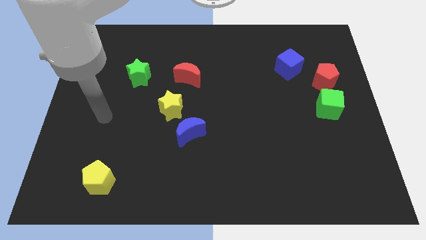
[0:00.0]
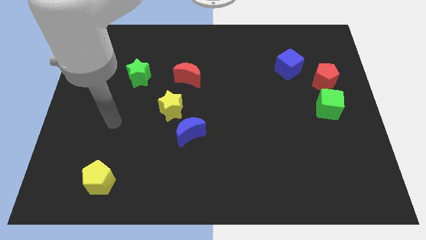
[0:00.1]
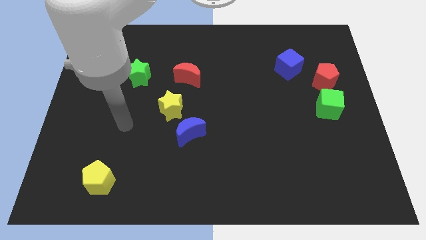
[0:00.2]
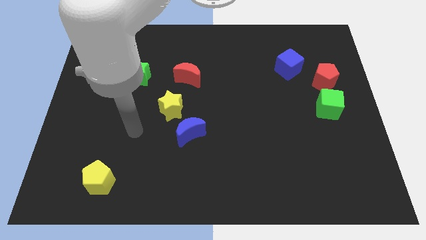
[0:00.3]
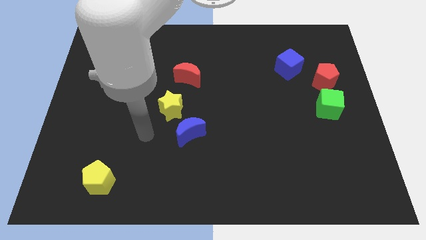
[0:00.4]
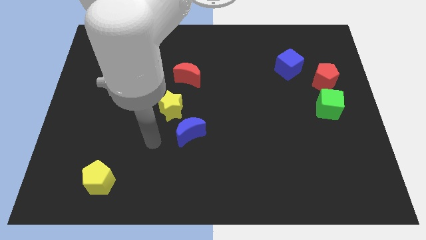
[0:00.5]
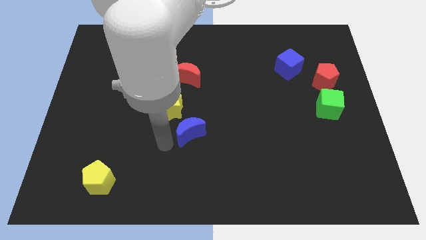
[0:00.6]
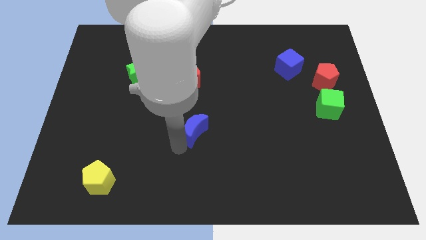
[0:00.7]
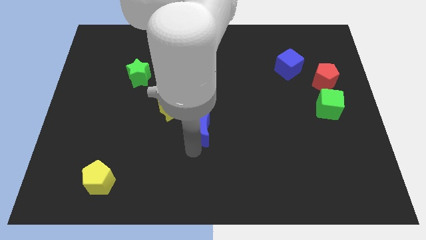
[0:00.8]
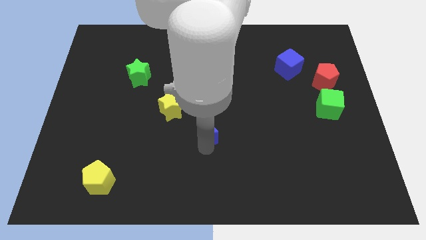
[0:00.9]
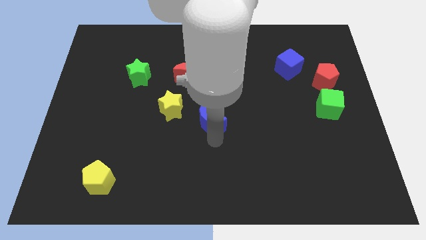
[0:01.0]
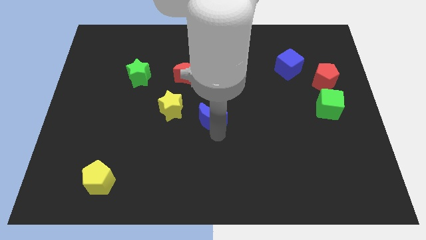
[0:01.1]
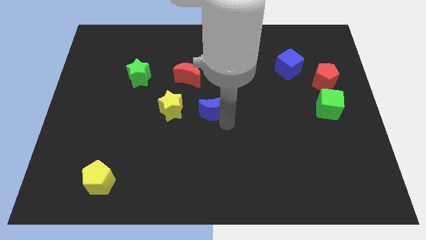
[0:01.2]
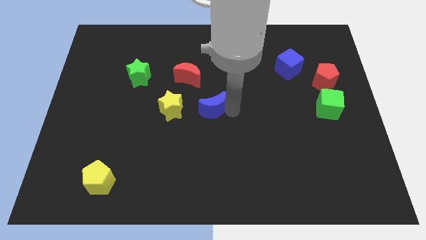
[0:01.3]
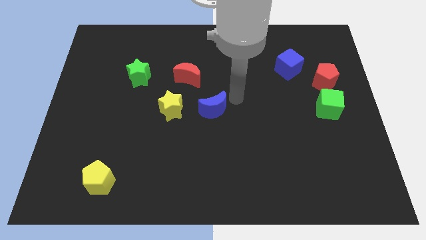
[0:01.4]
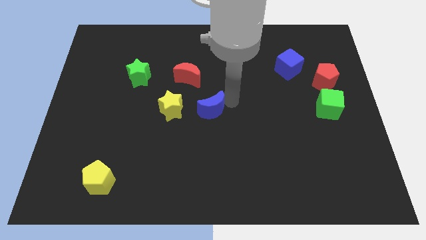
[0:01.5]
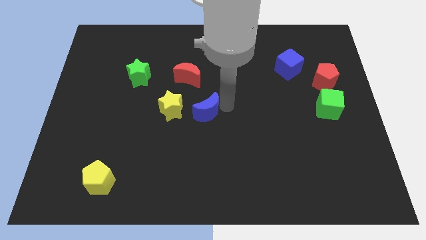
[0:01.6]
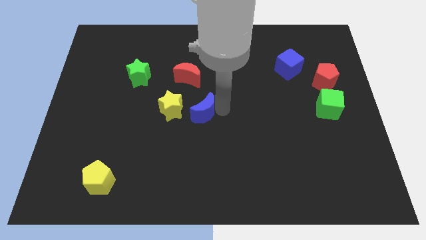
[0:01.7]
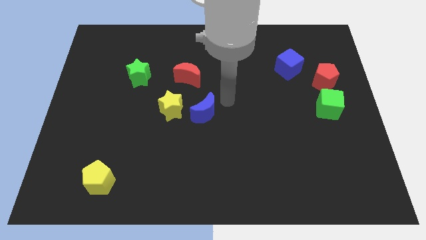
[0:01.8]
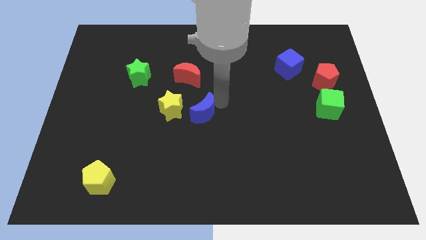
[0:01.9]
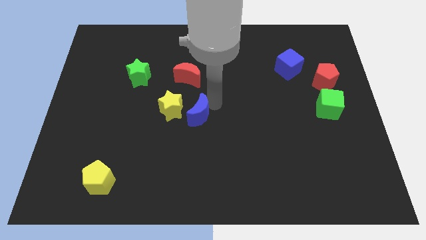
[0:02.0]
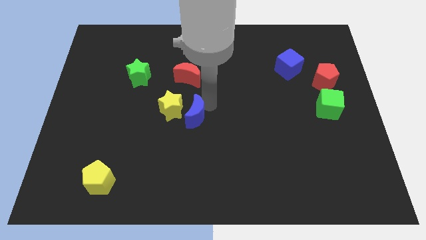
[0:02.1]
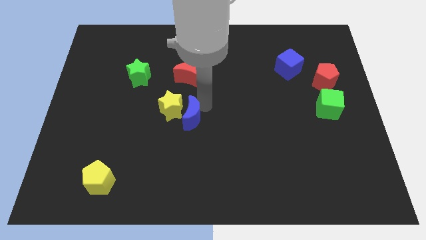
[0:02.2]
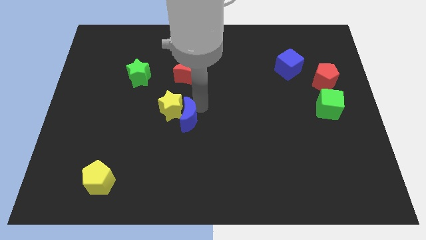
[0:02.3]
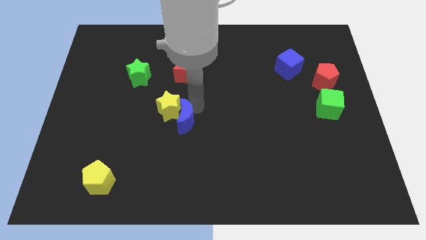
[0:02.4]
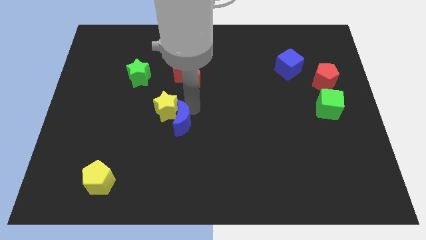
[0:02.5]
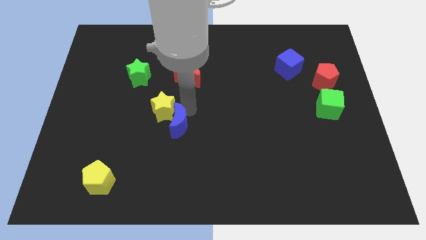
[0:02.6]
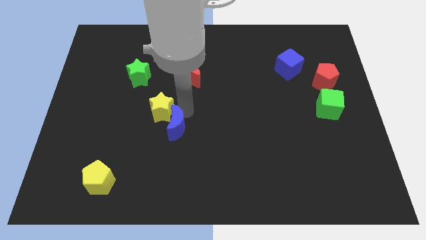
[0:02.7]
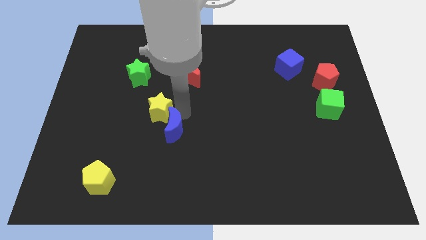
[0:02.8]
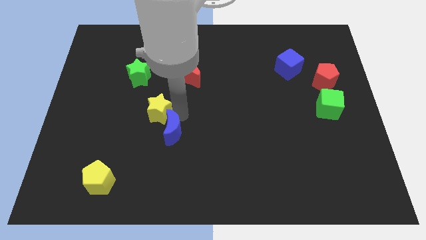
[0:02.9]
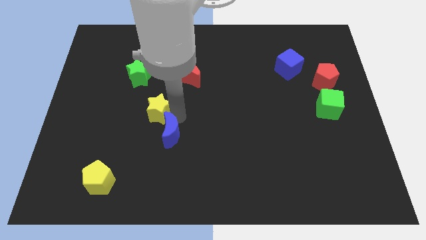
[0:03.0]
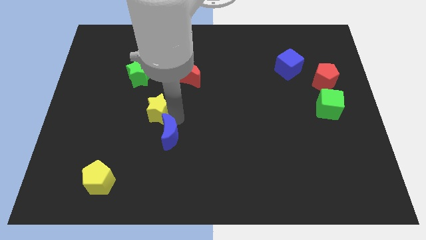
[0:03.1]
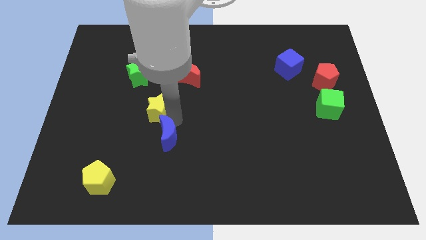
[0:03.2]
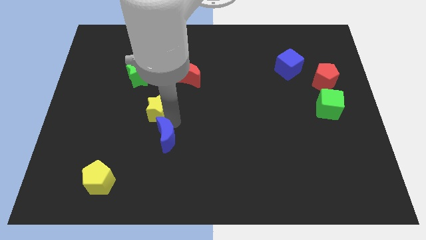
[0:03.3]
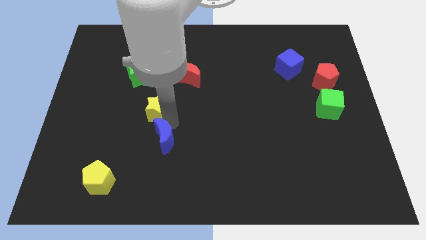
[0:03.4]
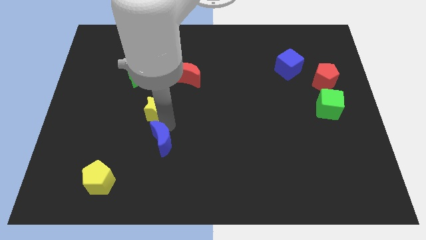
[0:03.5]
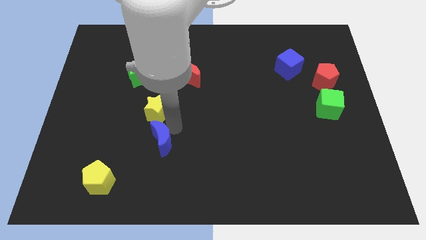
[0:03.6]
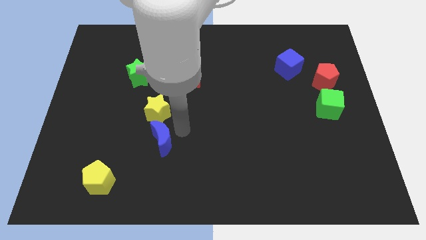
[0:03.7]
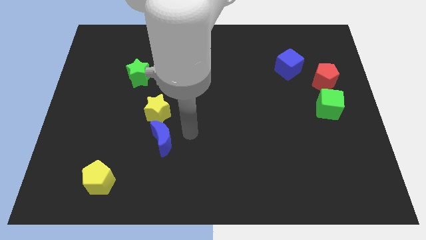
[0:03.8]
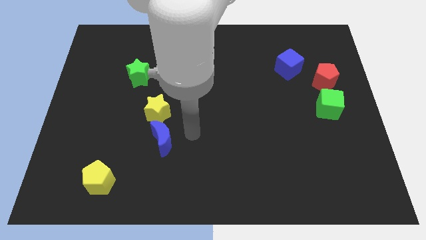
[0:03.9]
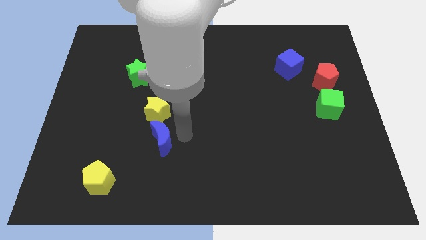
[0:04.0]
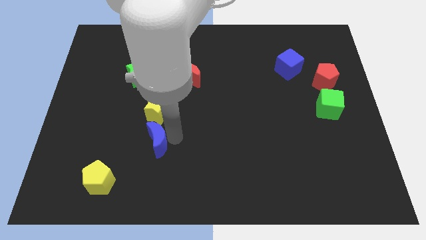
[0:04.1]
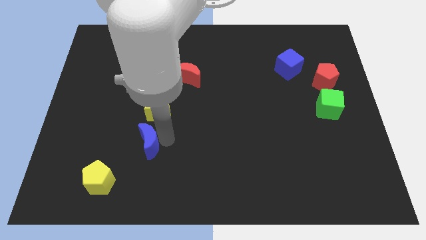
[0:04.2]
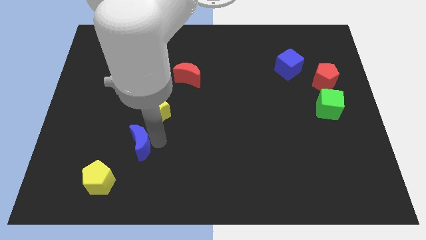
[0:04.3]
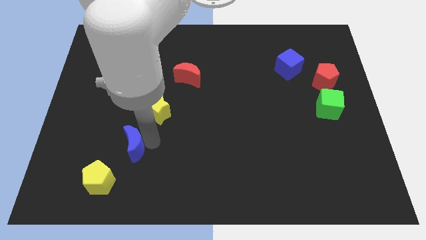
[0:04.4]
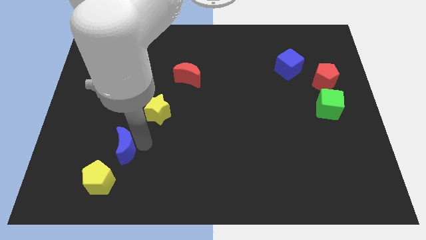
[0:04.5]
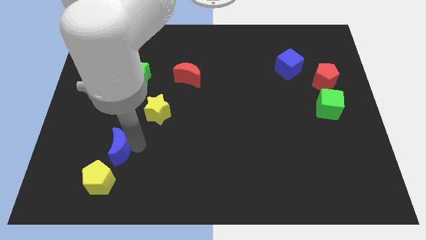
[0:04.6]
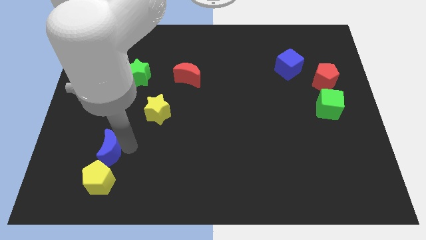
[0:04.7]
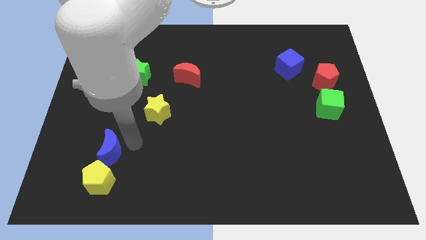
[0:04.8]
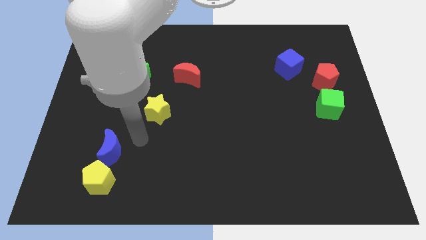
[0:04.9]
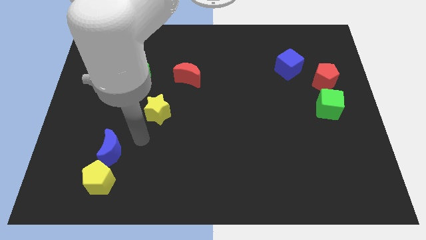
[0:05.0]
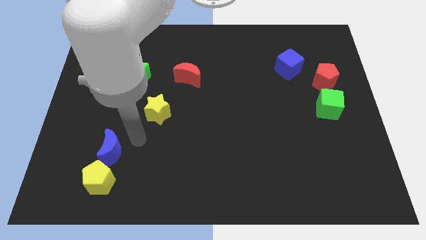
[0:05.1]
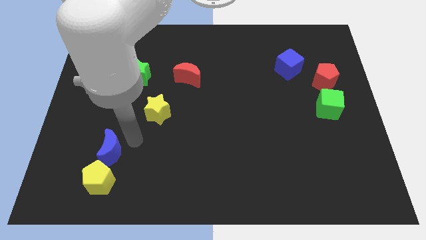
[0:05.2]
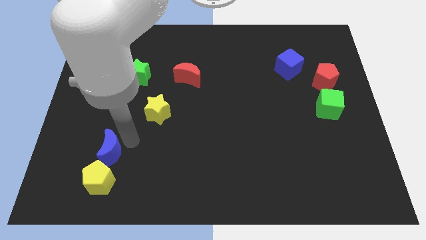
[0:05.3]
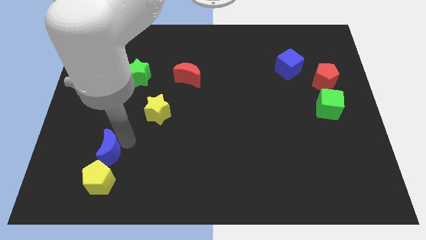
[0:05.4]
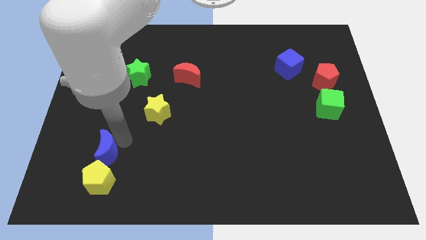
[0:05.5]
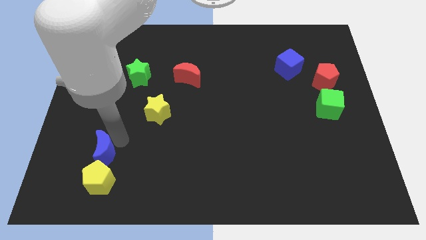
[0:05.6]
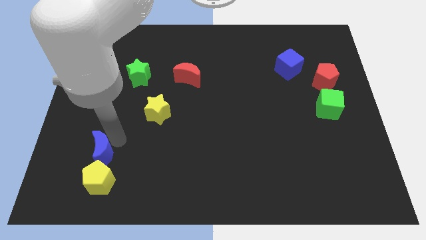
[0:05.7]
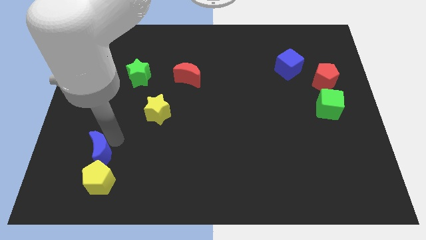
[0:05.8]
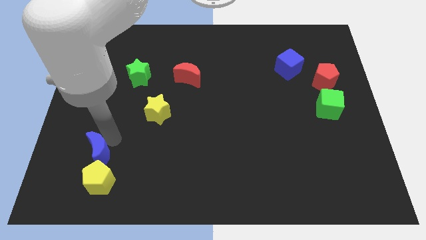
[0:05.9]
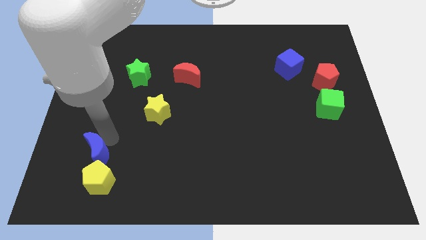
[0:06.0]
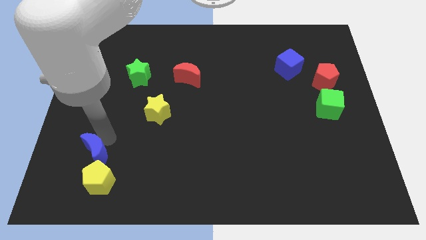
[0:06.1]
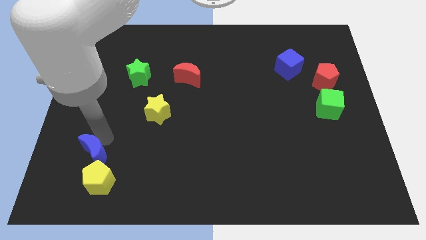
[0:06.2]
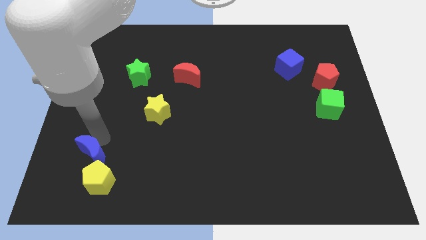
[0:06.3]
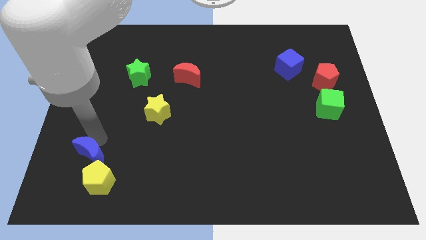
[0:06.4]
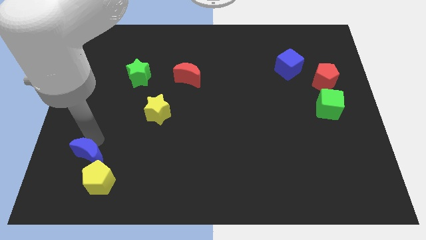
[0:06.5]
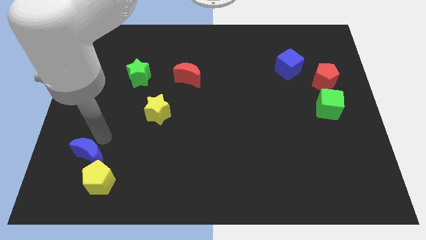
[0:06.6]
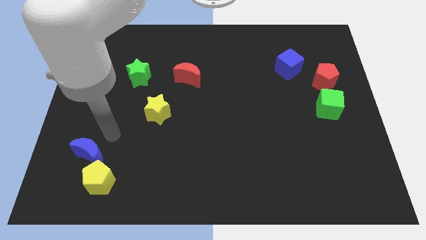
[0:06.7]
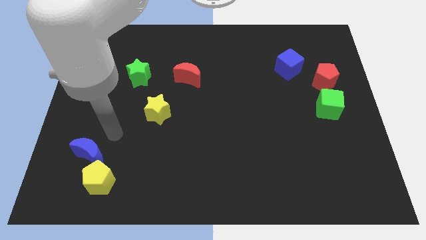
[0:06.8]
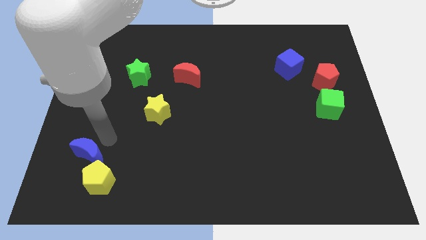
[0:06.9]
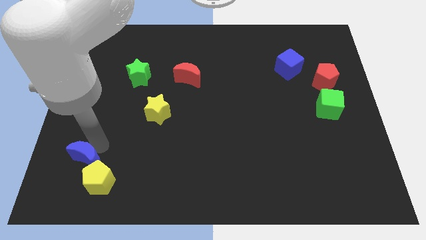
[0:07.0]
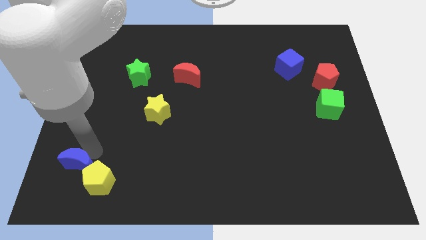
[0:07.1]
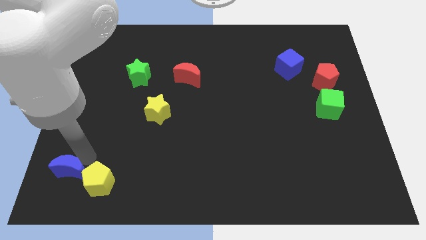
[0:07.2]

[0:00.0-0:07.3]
put the blue moon to the bottom left
